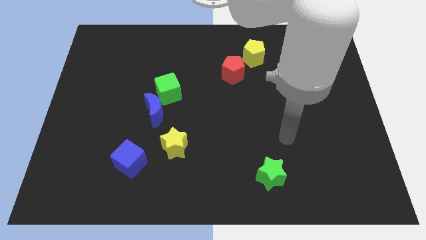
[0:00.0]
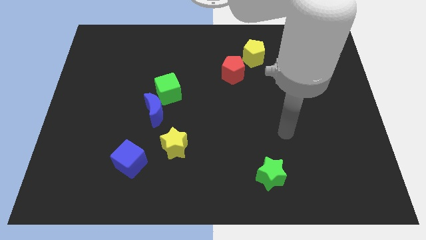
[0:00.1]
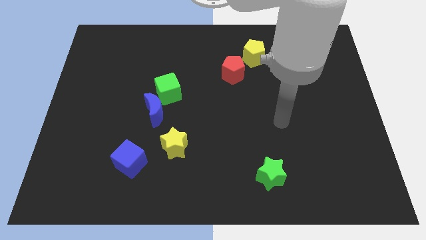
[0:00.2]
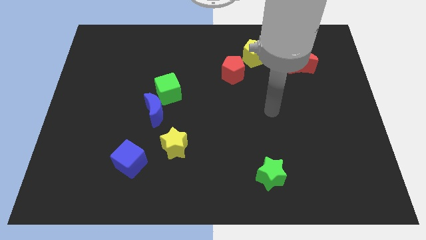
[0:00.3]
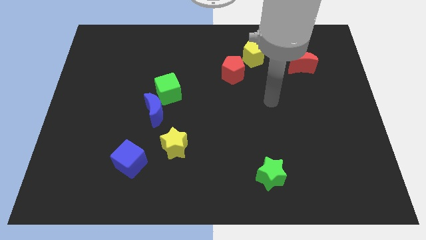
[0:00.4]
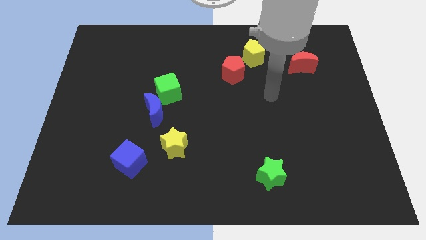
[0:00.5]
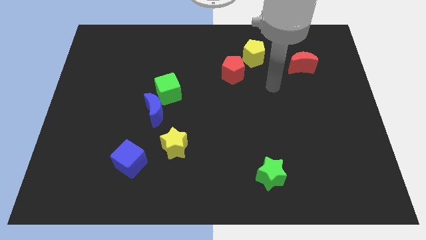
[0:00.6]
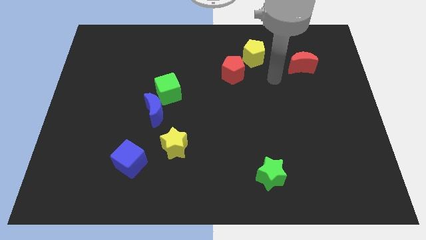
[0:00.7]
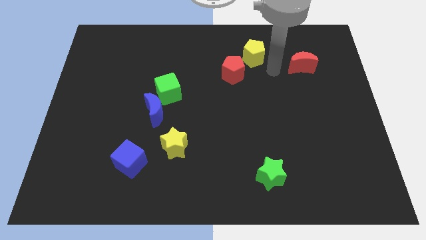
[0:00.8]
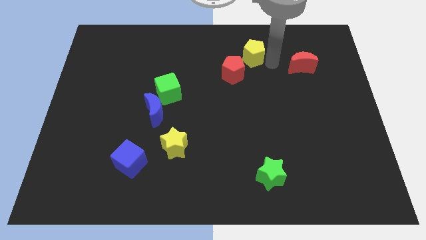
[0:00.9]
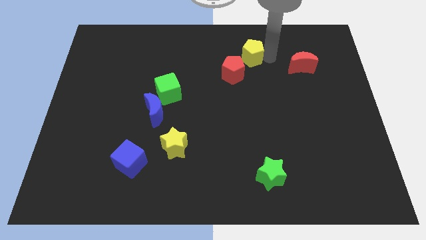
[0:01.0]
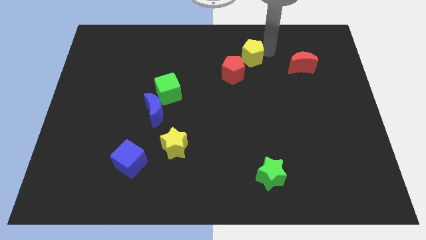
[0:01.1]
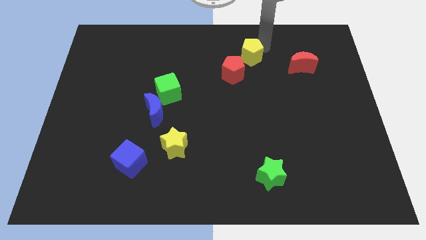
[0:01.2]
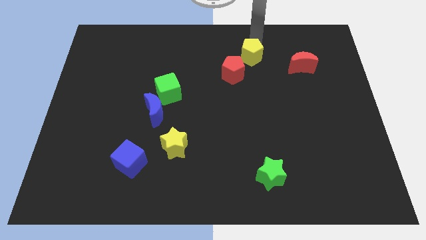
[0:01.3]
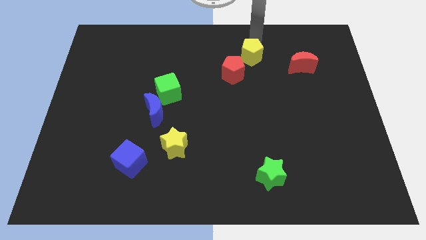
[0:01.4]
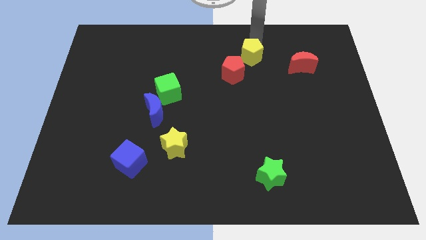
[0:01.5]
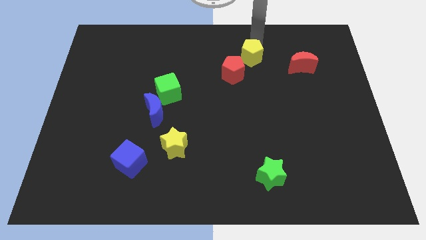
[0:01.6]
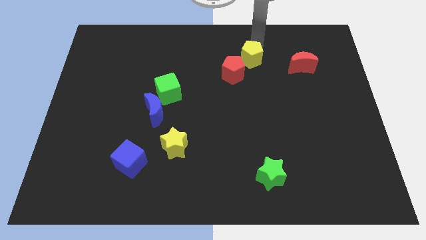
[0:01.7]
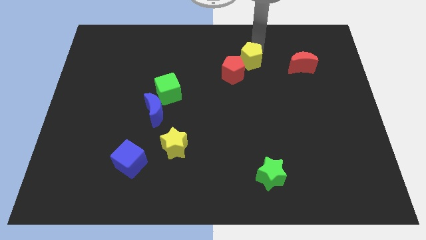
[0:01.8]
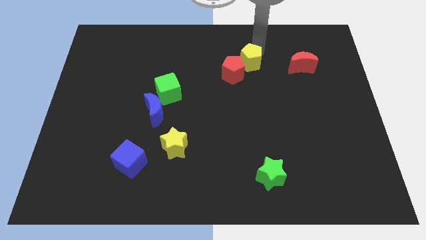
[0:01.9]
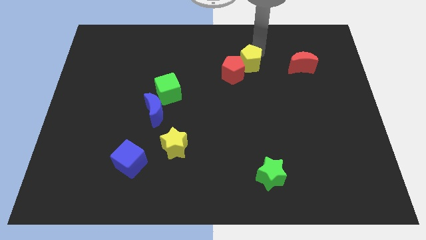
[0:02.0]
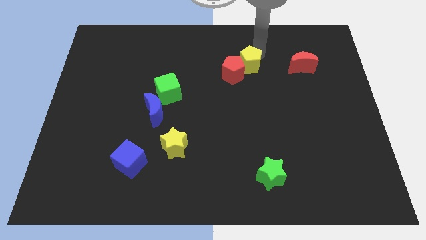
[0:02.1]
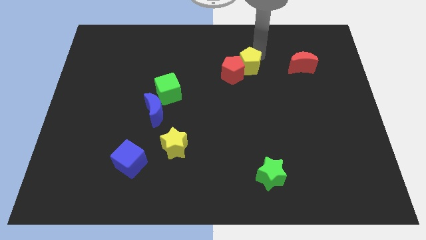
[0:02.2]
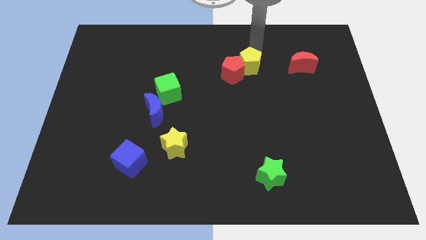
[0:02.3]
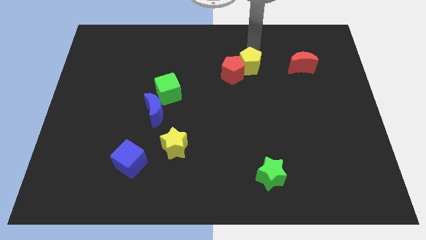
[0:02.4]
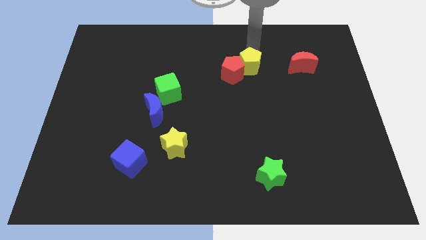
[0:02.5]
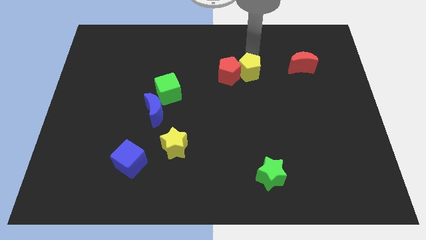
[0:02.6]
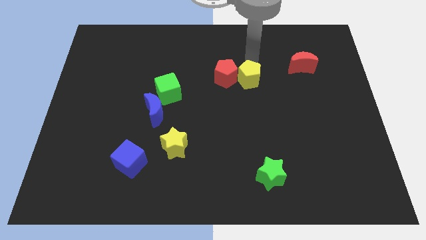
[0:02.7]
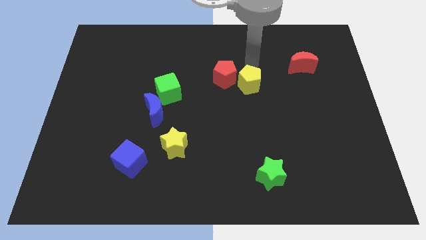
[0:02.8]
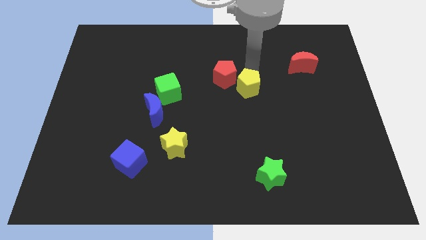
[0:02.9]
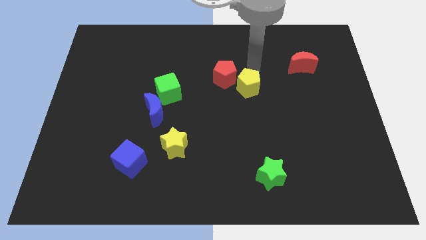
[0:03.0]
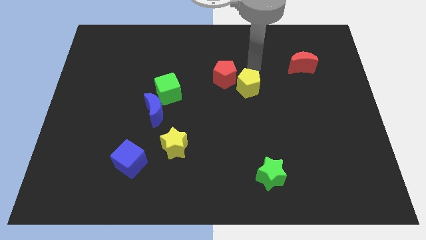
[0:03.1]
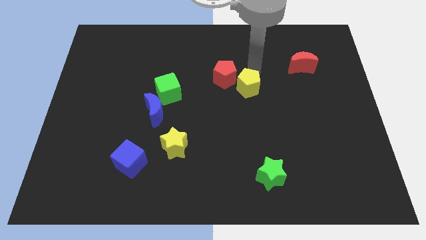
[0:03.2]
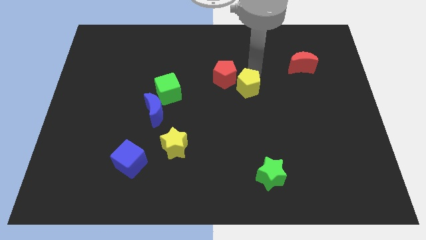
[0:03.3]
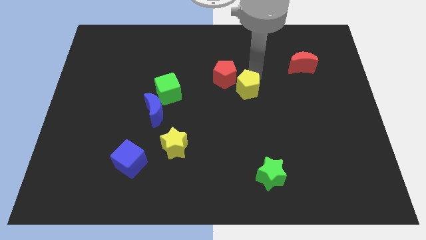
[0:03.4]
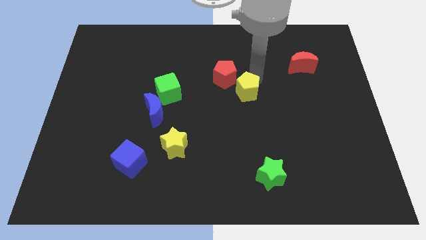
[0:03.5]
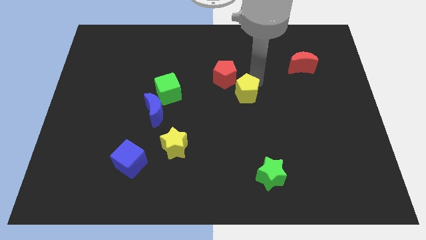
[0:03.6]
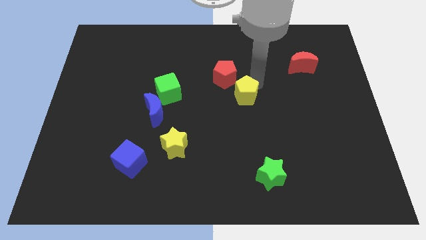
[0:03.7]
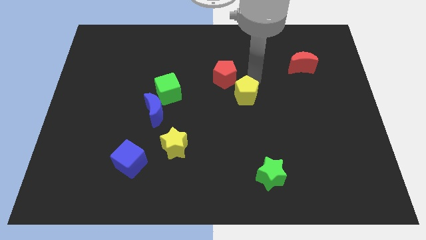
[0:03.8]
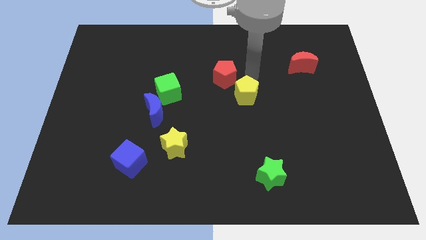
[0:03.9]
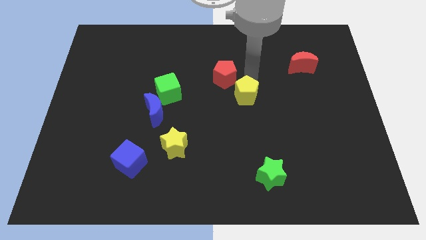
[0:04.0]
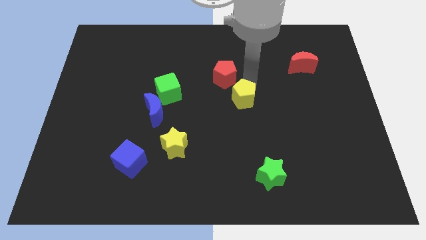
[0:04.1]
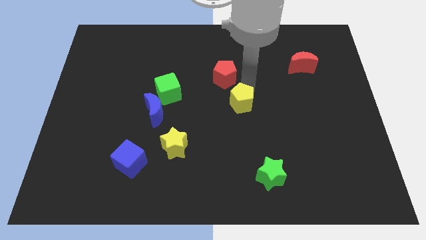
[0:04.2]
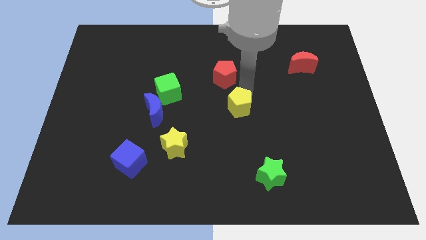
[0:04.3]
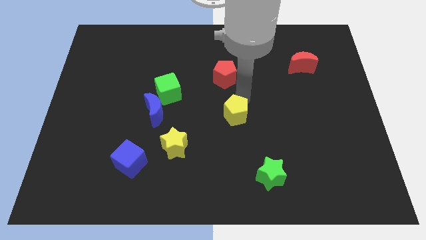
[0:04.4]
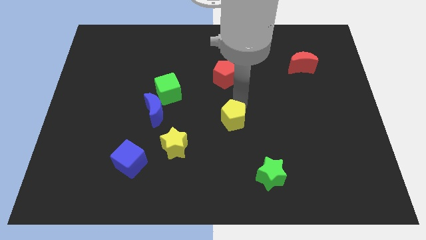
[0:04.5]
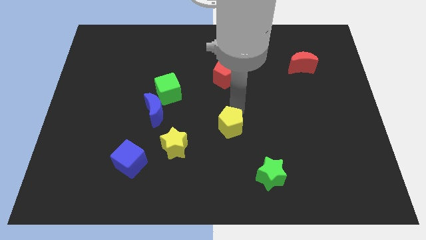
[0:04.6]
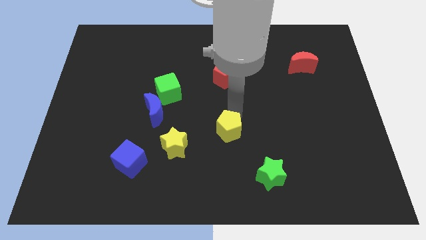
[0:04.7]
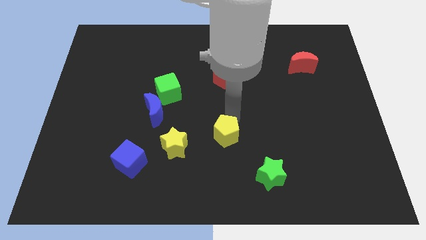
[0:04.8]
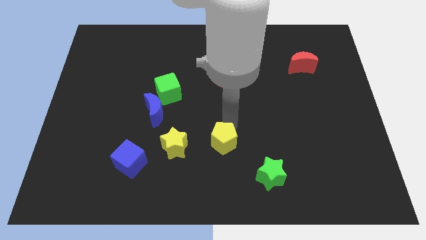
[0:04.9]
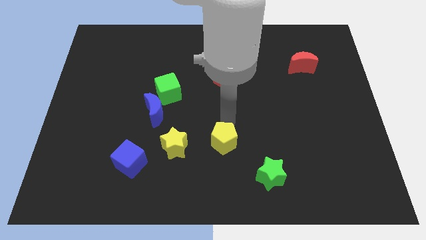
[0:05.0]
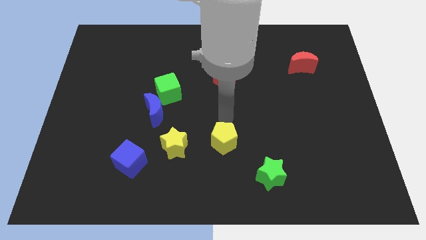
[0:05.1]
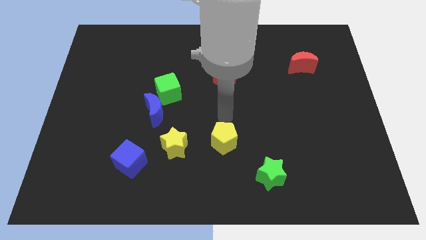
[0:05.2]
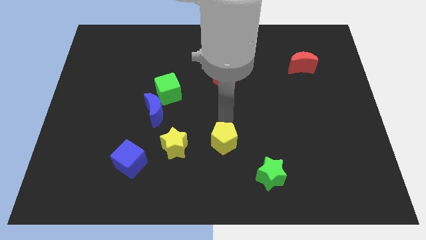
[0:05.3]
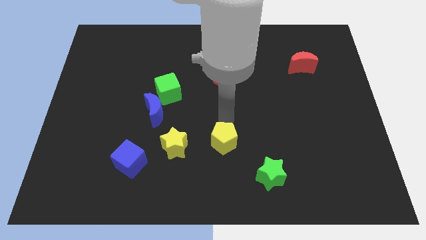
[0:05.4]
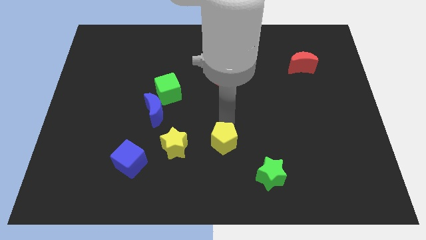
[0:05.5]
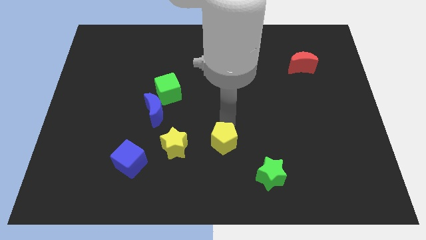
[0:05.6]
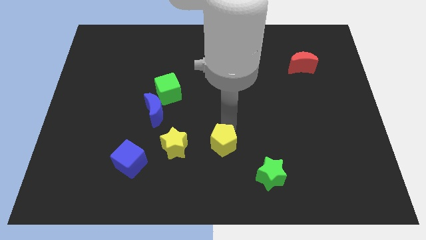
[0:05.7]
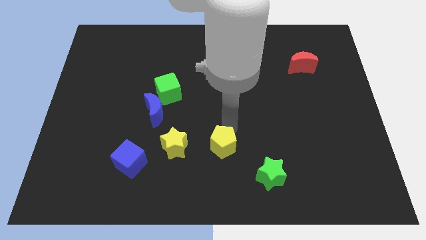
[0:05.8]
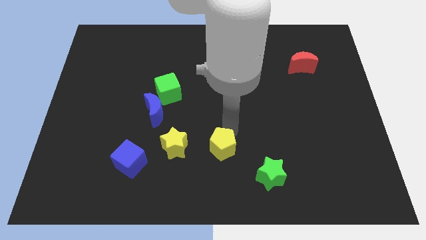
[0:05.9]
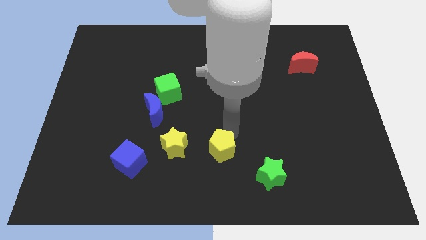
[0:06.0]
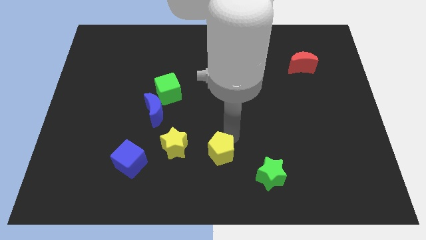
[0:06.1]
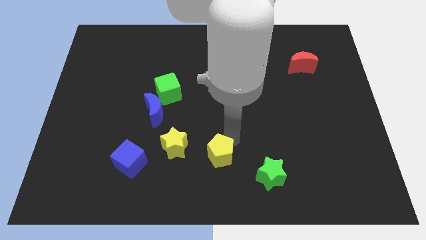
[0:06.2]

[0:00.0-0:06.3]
slide the yellow pentagon to the bottom
